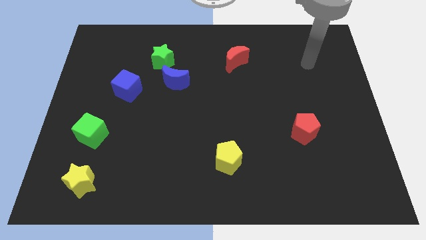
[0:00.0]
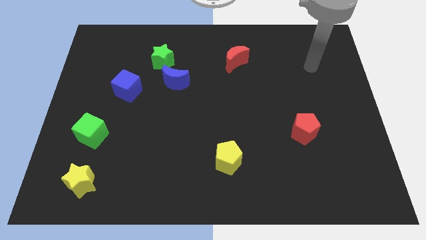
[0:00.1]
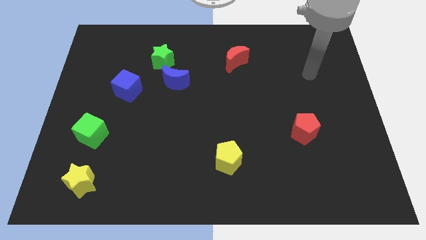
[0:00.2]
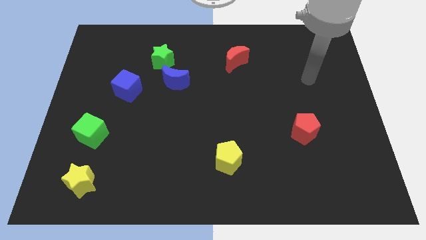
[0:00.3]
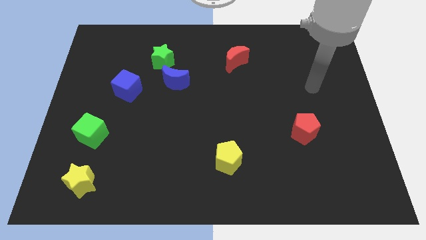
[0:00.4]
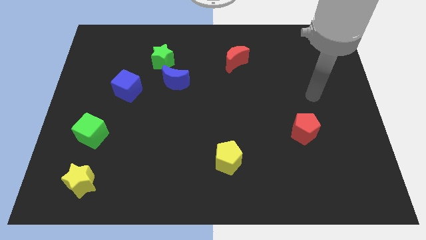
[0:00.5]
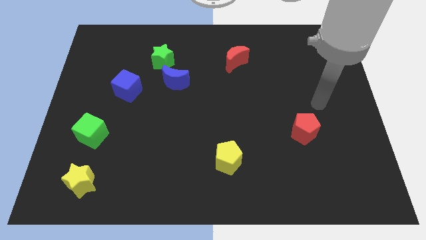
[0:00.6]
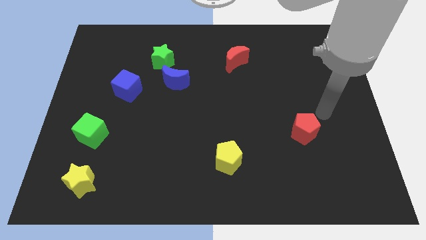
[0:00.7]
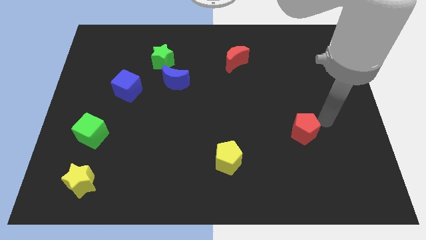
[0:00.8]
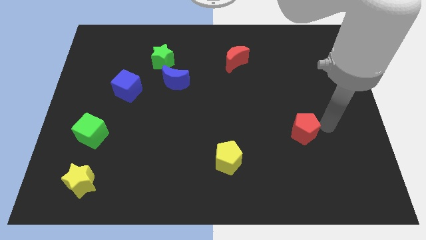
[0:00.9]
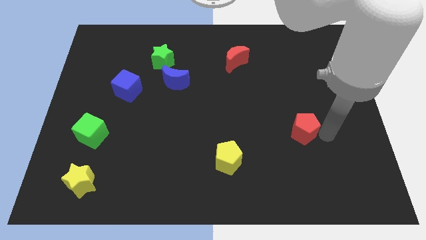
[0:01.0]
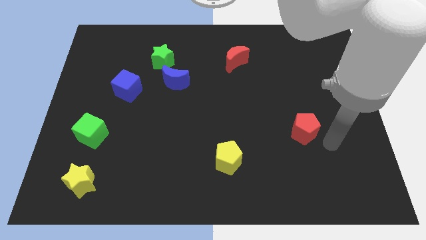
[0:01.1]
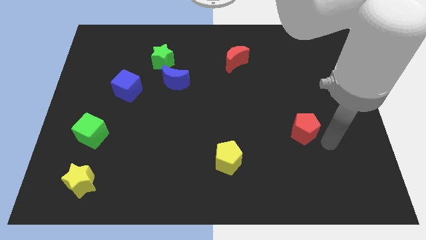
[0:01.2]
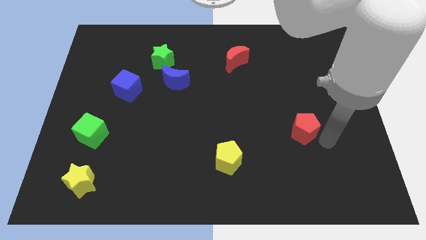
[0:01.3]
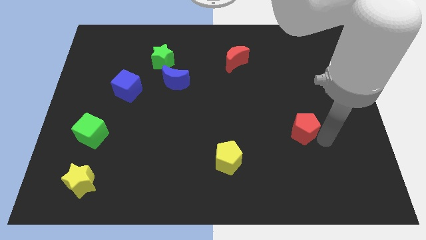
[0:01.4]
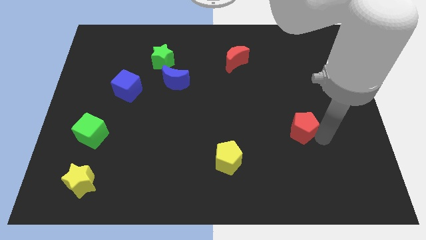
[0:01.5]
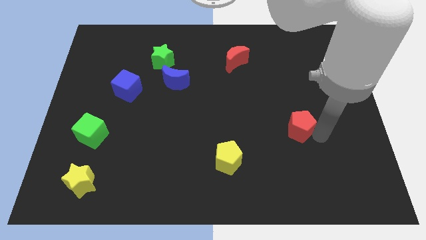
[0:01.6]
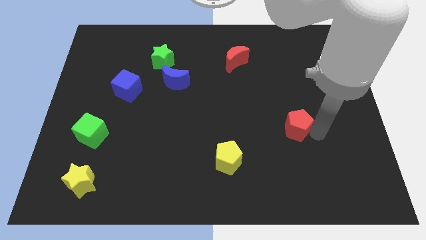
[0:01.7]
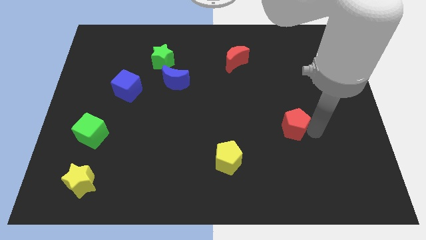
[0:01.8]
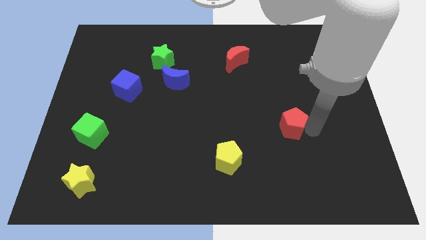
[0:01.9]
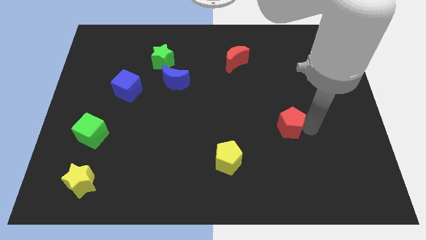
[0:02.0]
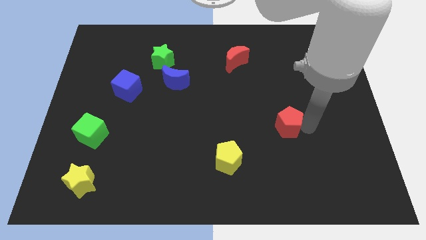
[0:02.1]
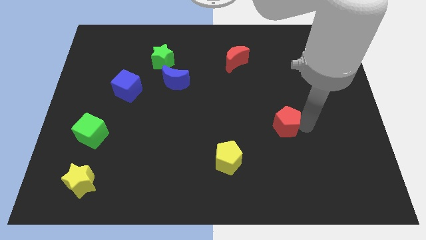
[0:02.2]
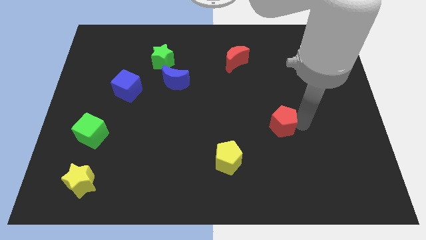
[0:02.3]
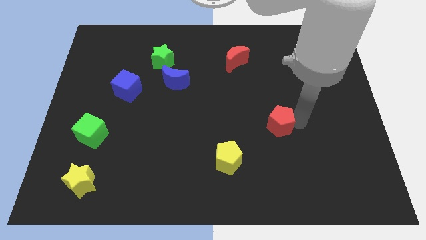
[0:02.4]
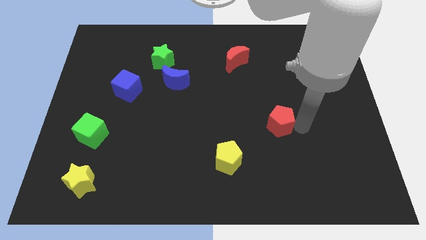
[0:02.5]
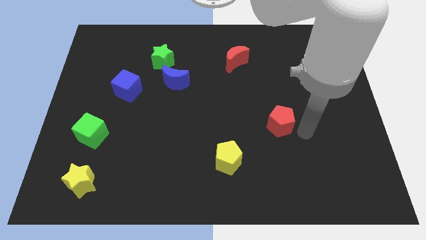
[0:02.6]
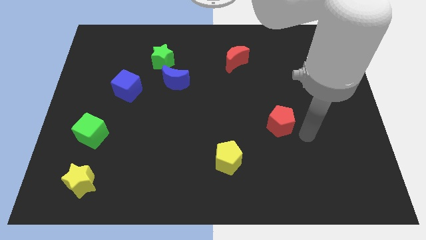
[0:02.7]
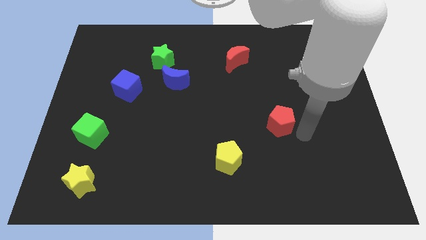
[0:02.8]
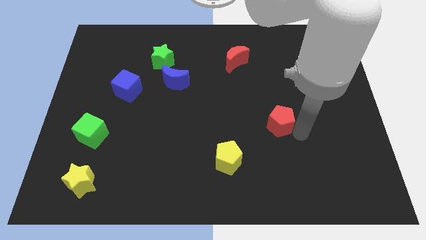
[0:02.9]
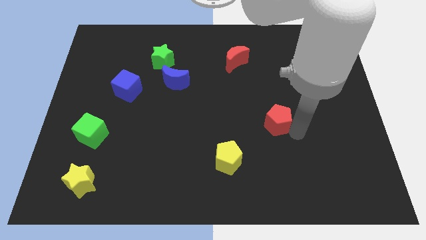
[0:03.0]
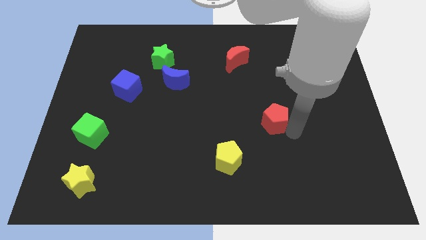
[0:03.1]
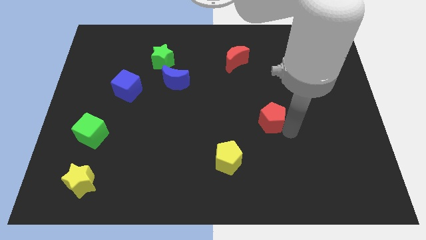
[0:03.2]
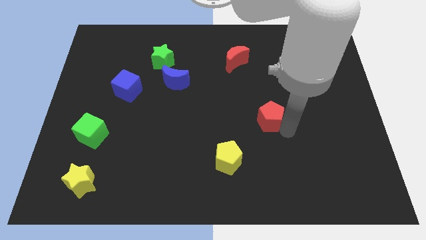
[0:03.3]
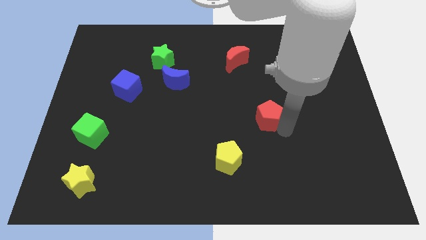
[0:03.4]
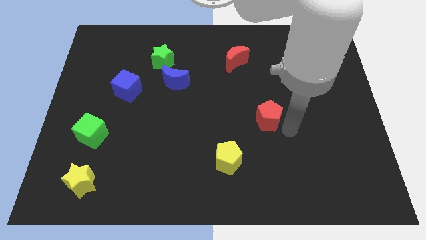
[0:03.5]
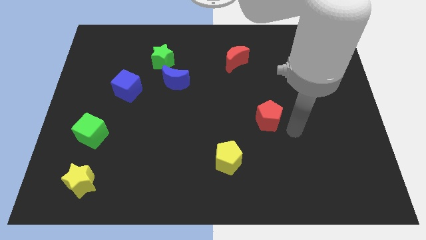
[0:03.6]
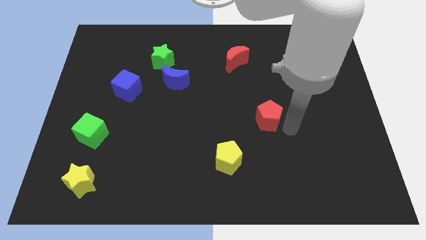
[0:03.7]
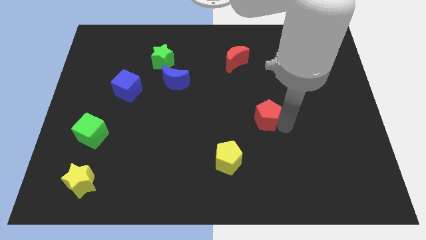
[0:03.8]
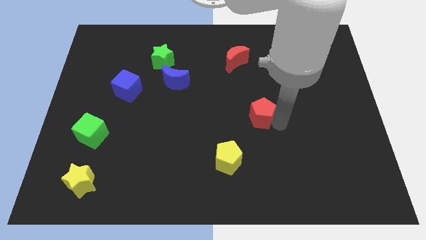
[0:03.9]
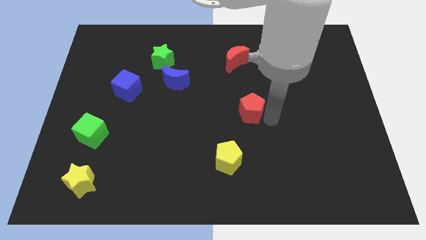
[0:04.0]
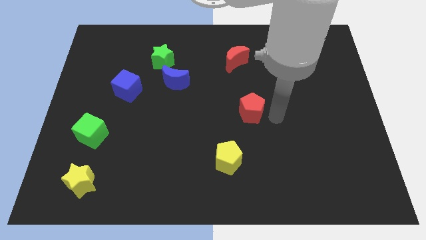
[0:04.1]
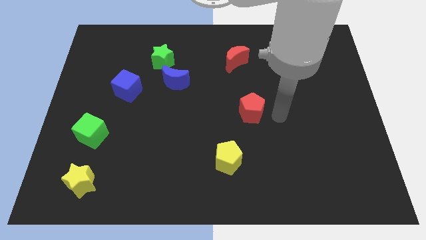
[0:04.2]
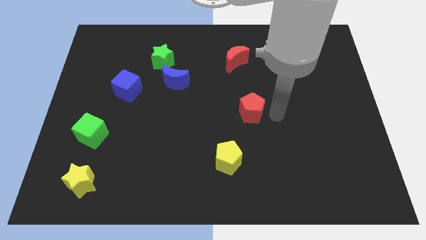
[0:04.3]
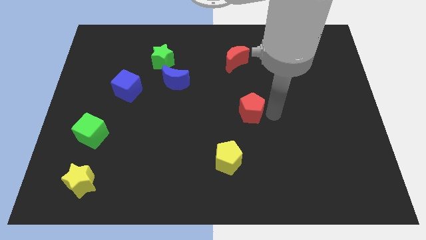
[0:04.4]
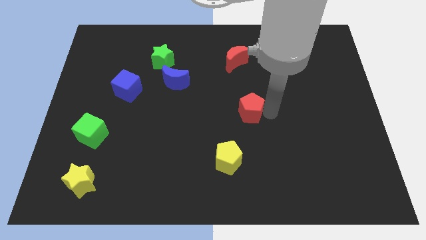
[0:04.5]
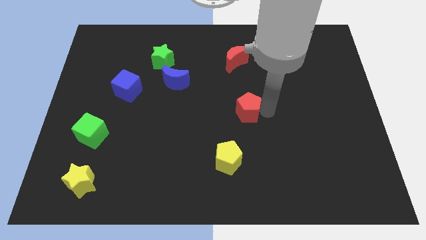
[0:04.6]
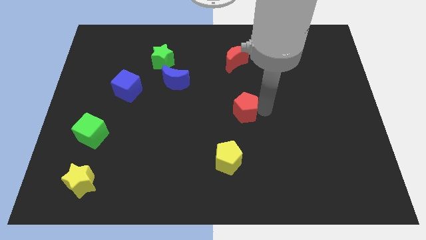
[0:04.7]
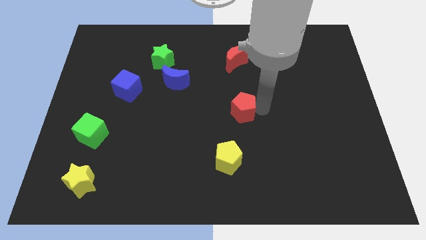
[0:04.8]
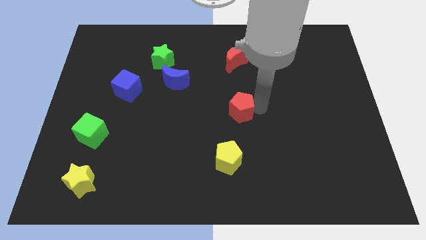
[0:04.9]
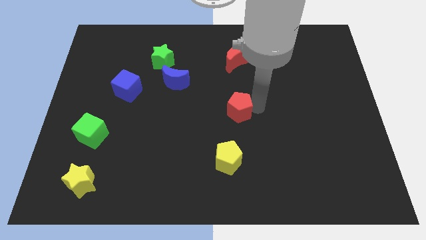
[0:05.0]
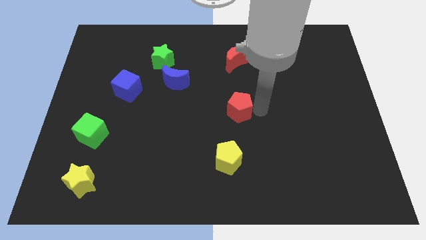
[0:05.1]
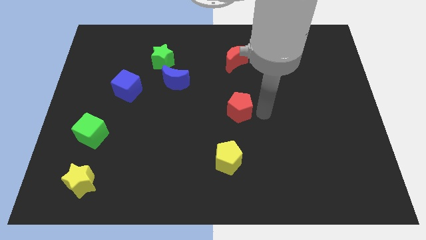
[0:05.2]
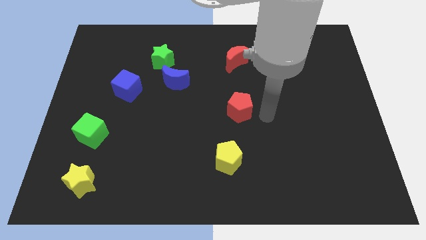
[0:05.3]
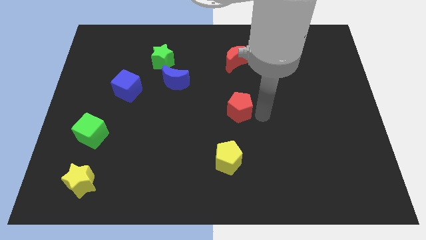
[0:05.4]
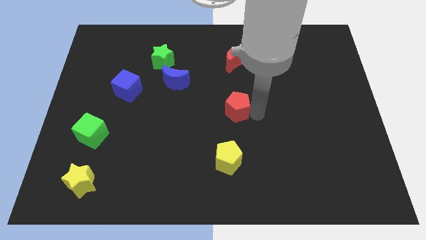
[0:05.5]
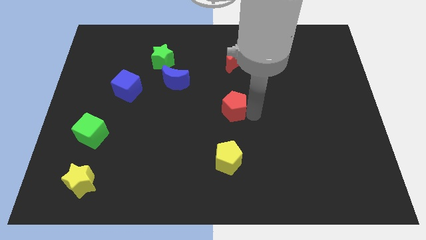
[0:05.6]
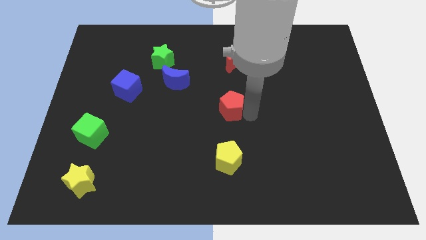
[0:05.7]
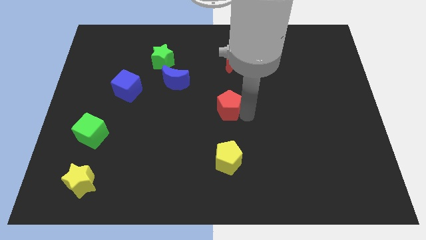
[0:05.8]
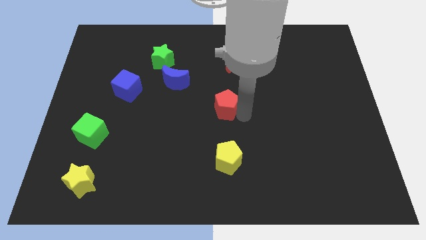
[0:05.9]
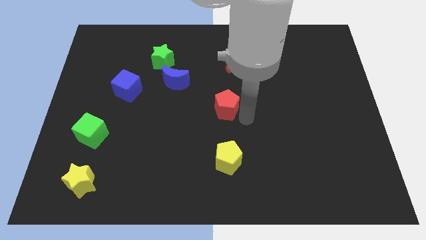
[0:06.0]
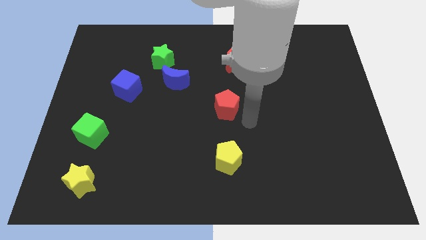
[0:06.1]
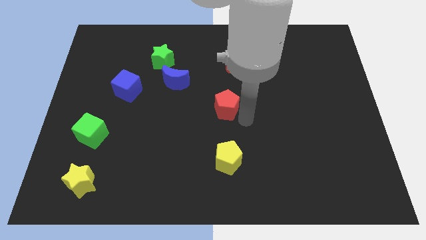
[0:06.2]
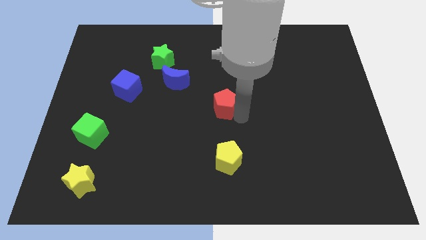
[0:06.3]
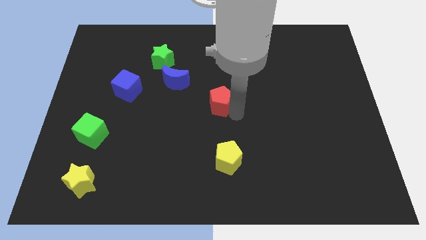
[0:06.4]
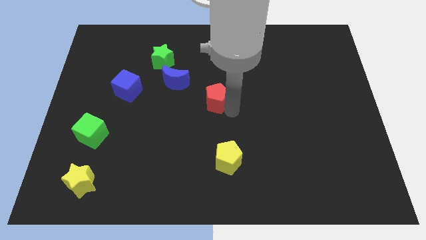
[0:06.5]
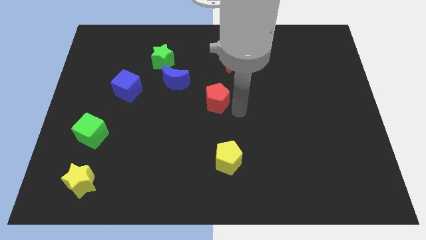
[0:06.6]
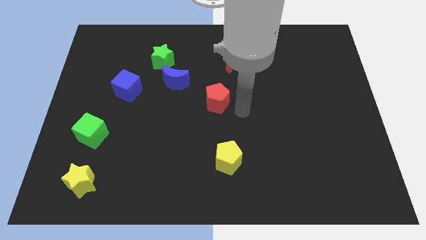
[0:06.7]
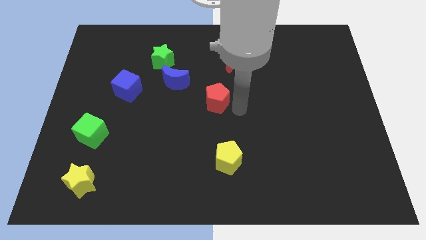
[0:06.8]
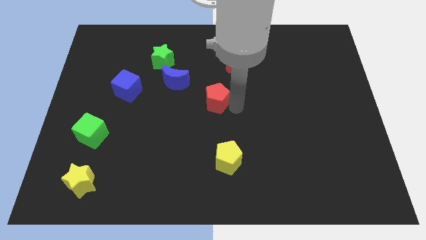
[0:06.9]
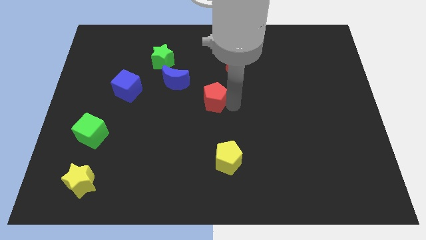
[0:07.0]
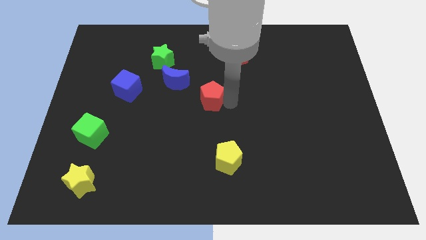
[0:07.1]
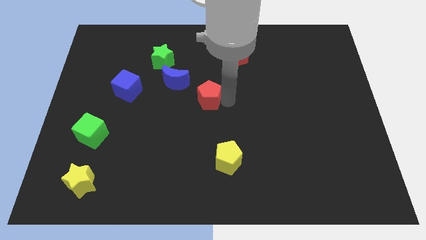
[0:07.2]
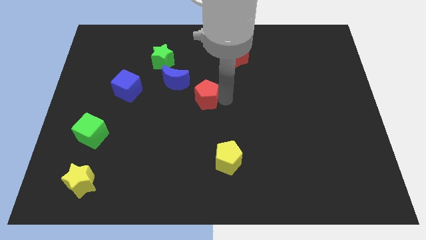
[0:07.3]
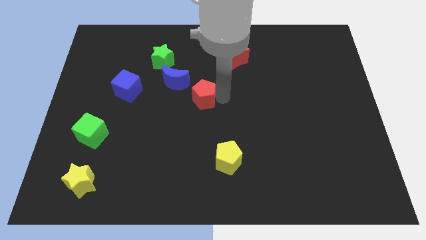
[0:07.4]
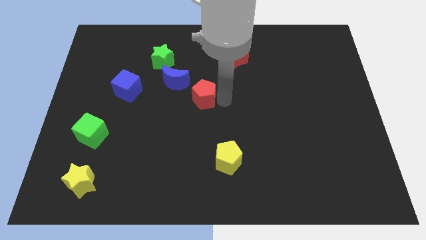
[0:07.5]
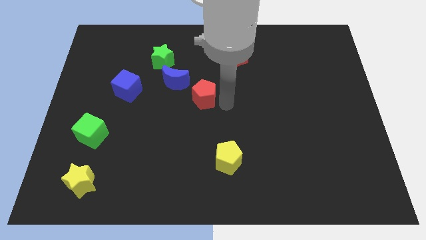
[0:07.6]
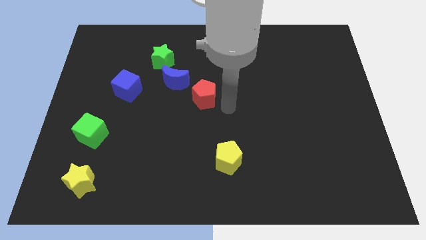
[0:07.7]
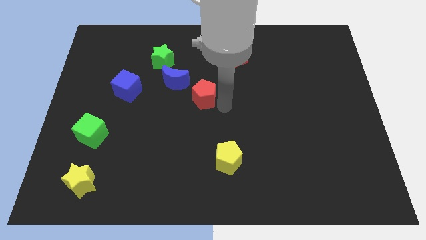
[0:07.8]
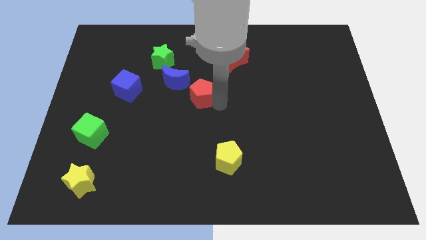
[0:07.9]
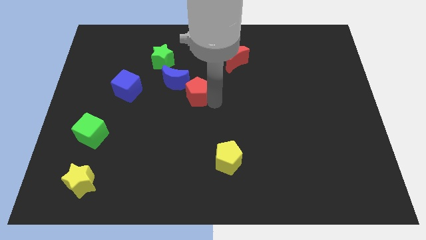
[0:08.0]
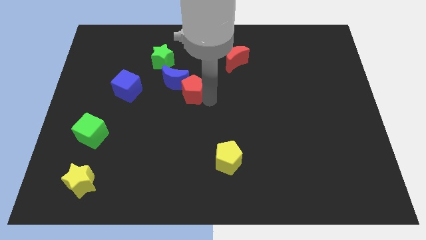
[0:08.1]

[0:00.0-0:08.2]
move the red pentagon right of the blue cube
